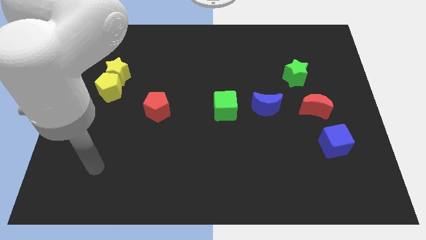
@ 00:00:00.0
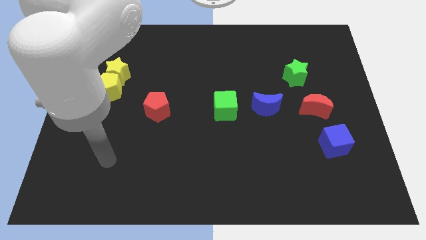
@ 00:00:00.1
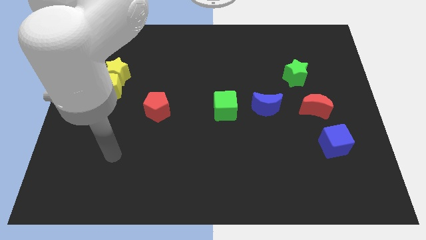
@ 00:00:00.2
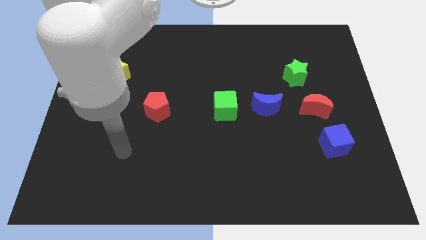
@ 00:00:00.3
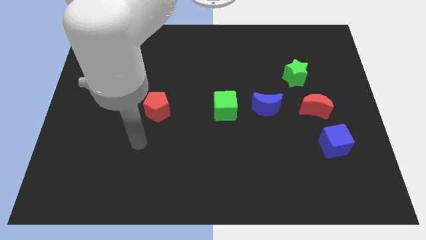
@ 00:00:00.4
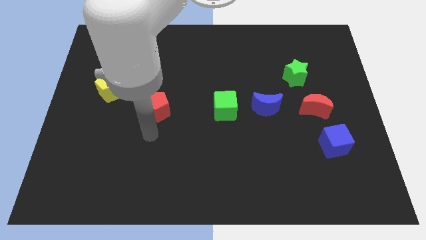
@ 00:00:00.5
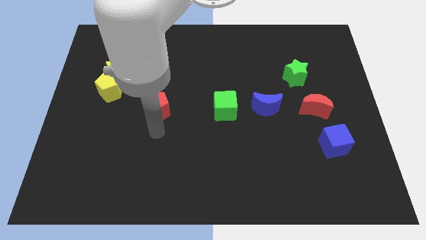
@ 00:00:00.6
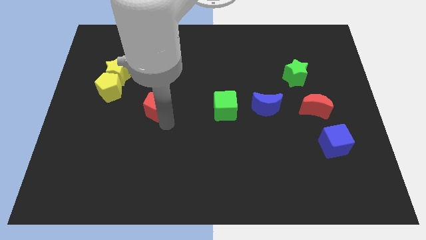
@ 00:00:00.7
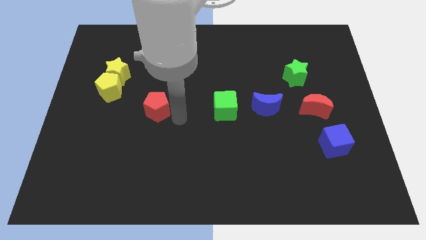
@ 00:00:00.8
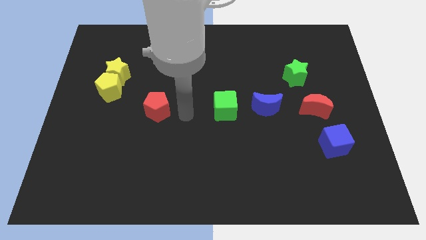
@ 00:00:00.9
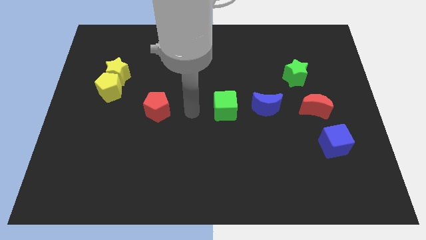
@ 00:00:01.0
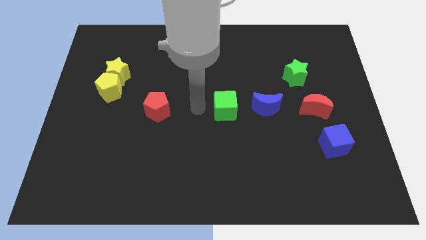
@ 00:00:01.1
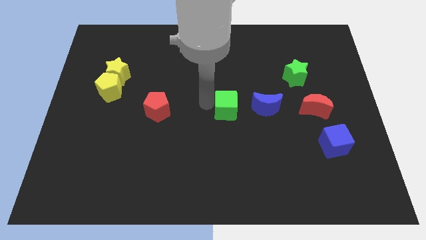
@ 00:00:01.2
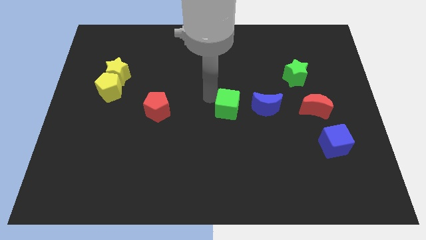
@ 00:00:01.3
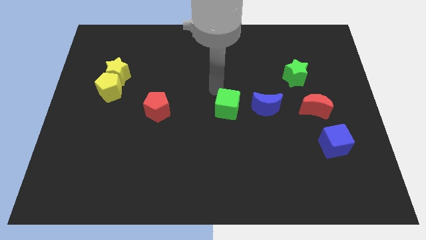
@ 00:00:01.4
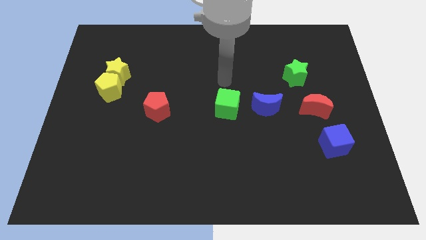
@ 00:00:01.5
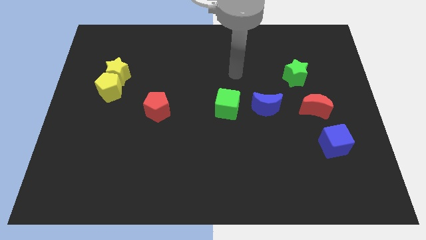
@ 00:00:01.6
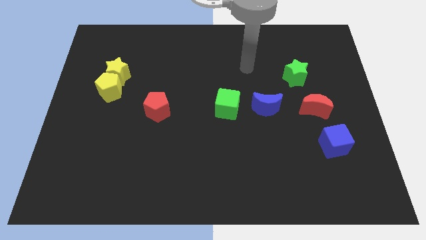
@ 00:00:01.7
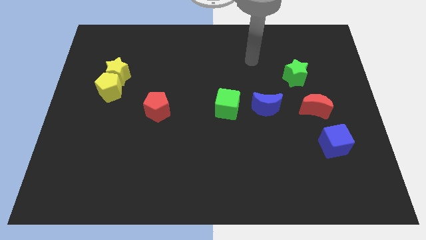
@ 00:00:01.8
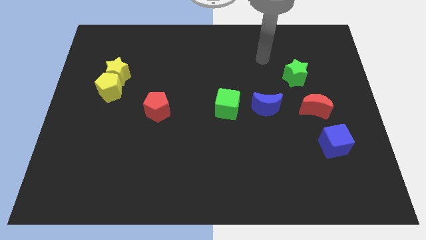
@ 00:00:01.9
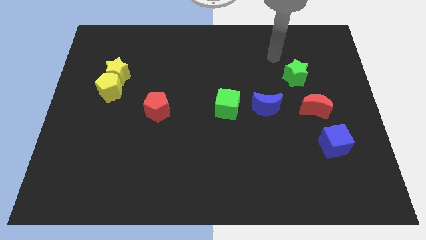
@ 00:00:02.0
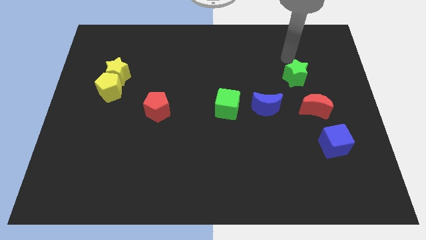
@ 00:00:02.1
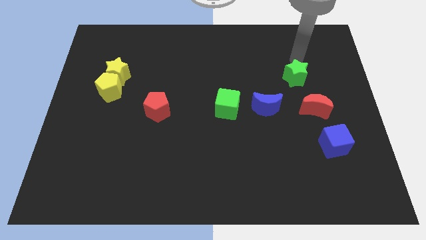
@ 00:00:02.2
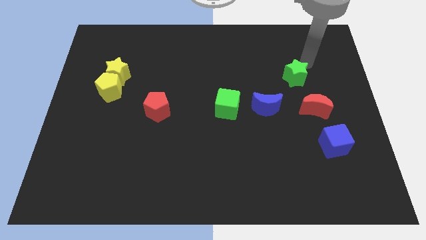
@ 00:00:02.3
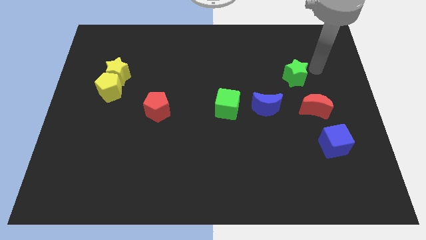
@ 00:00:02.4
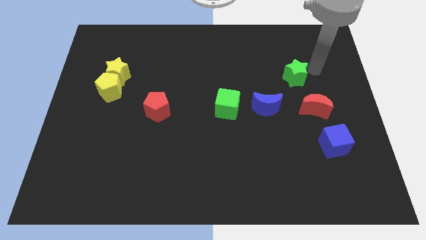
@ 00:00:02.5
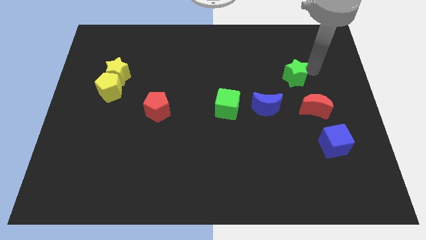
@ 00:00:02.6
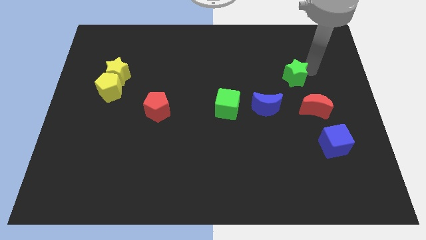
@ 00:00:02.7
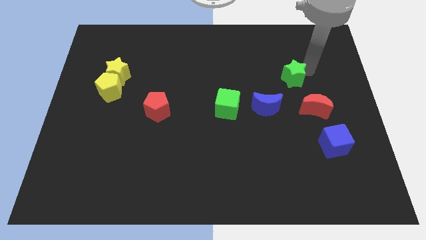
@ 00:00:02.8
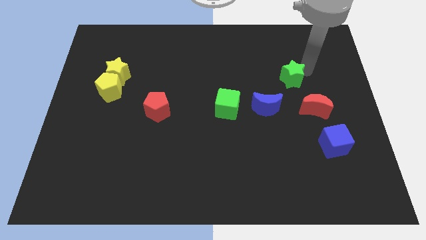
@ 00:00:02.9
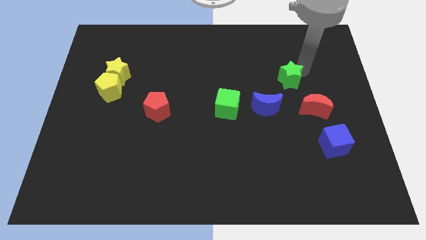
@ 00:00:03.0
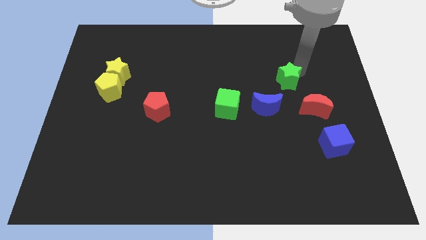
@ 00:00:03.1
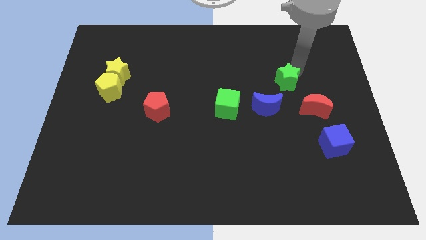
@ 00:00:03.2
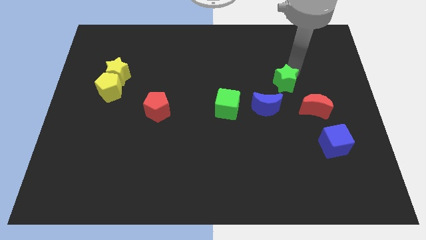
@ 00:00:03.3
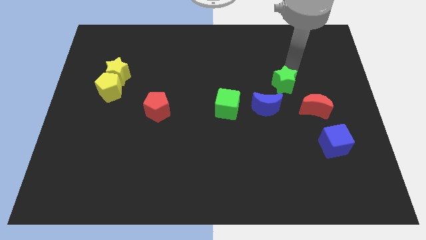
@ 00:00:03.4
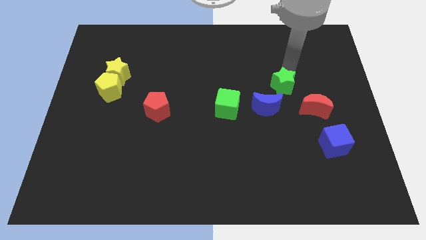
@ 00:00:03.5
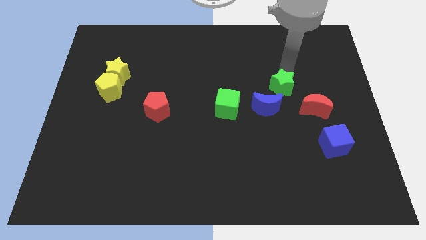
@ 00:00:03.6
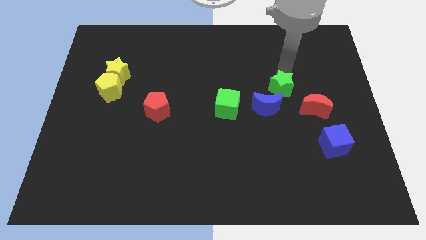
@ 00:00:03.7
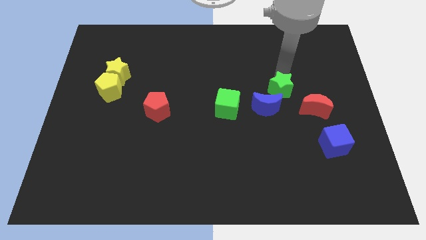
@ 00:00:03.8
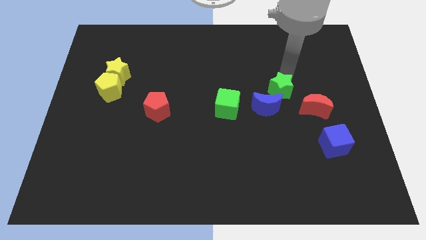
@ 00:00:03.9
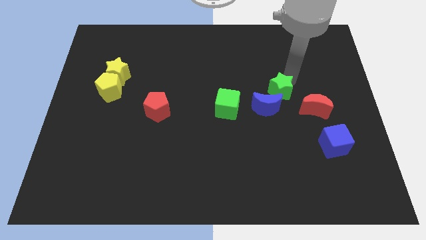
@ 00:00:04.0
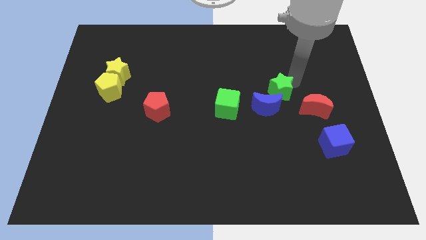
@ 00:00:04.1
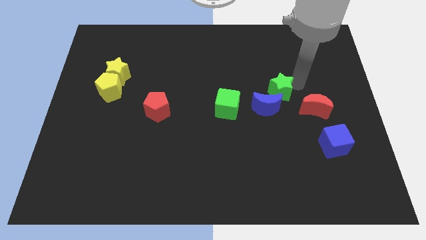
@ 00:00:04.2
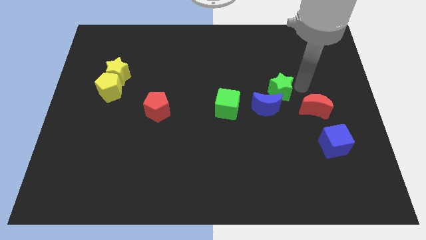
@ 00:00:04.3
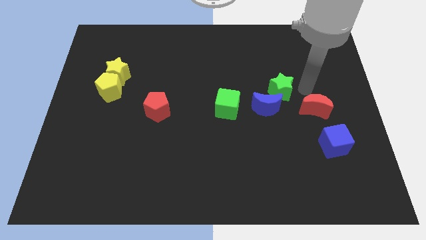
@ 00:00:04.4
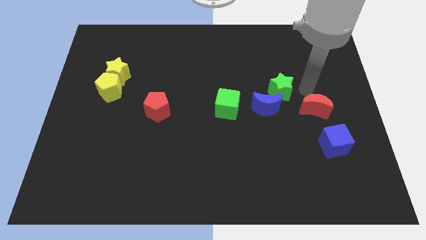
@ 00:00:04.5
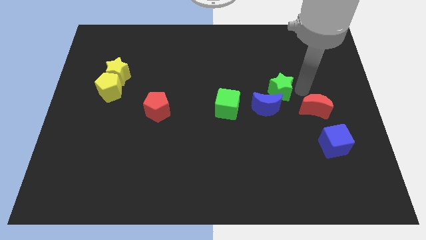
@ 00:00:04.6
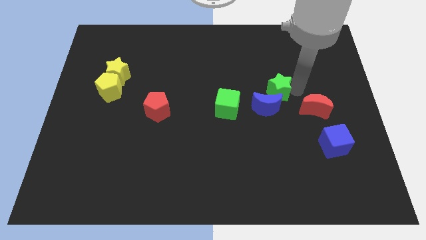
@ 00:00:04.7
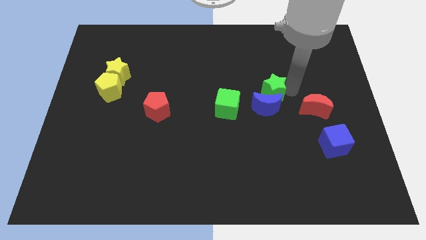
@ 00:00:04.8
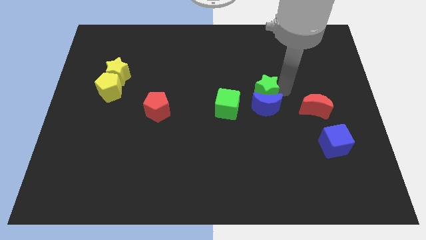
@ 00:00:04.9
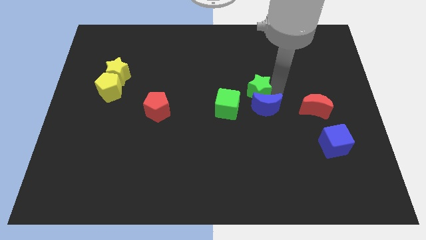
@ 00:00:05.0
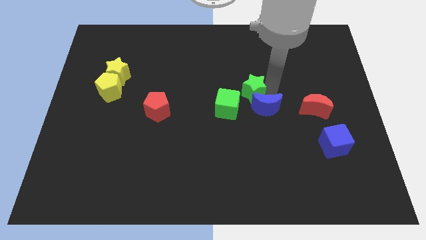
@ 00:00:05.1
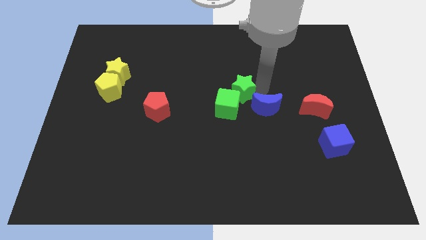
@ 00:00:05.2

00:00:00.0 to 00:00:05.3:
slide the green star towards the green cube
